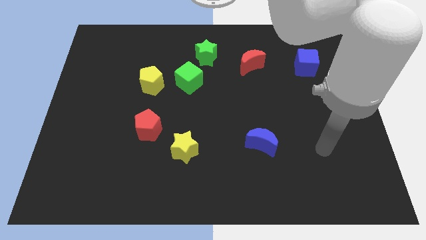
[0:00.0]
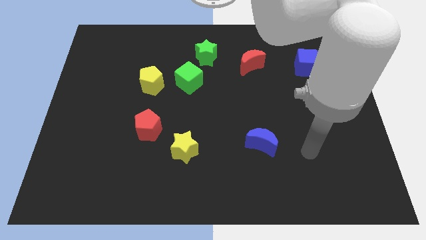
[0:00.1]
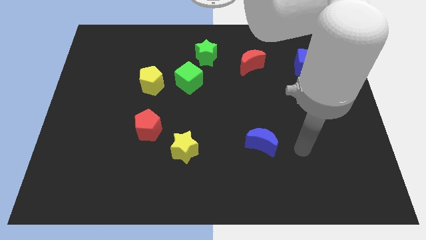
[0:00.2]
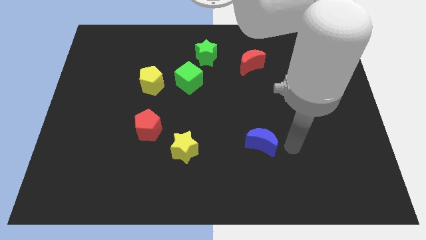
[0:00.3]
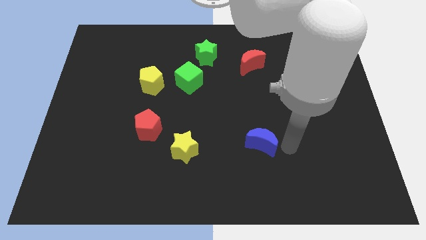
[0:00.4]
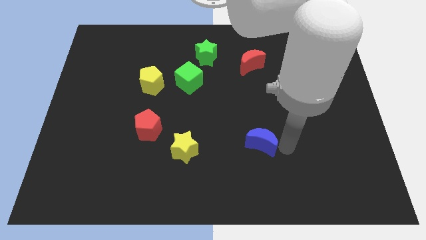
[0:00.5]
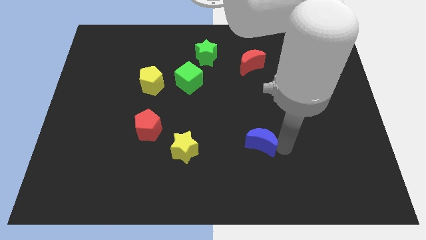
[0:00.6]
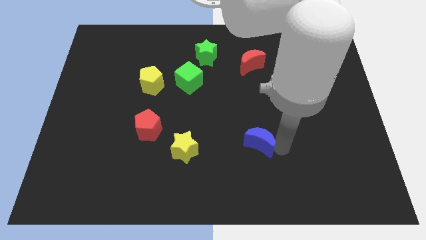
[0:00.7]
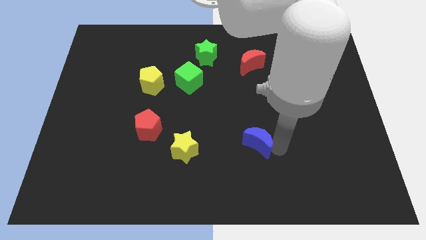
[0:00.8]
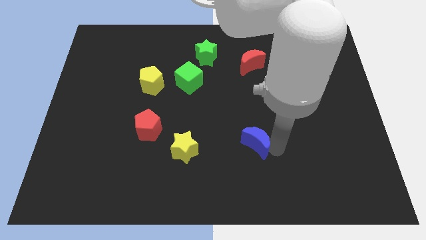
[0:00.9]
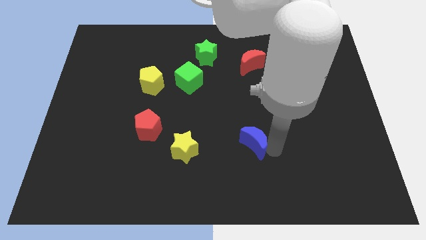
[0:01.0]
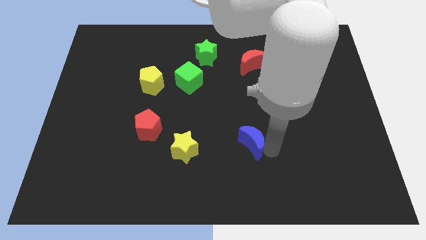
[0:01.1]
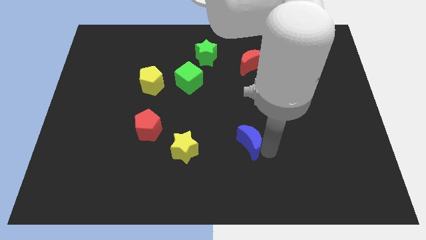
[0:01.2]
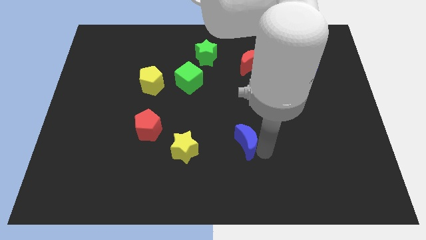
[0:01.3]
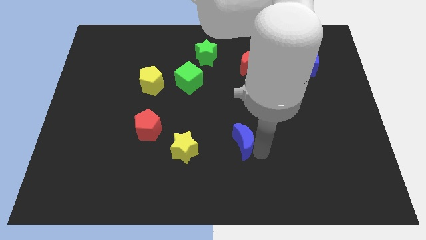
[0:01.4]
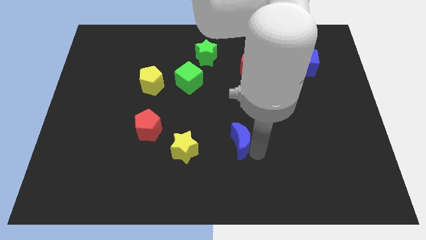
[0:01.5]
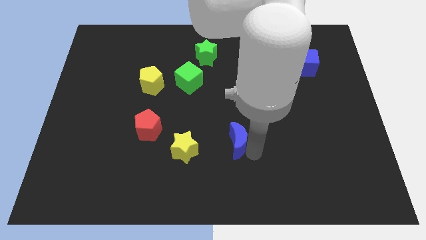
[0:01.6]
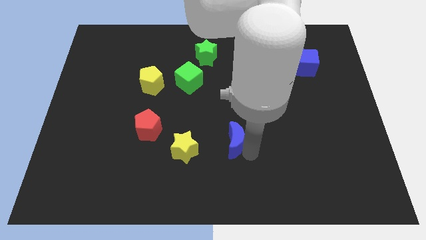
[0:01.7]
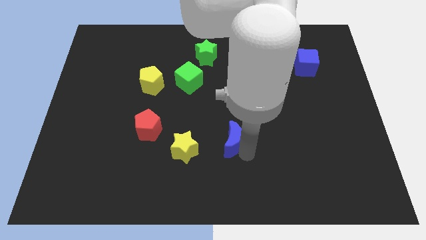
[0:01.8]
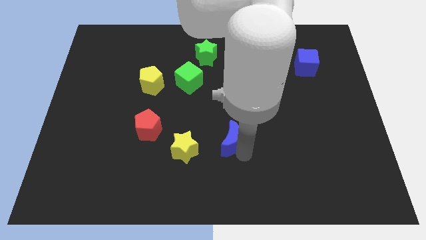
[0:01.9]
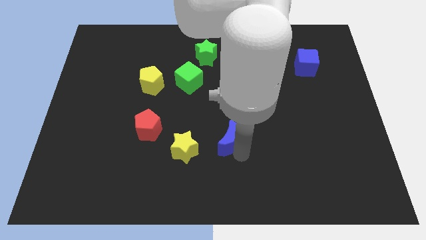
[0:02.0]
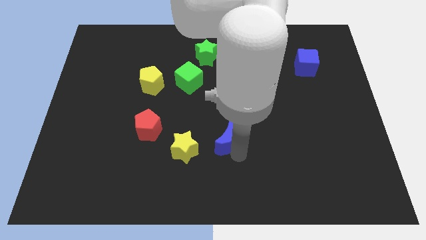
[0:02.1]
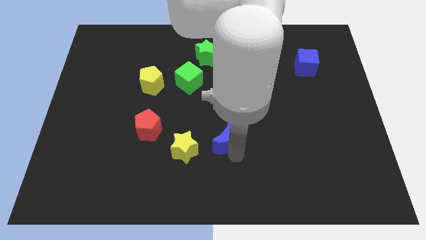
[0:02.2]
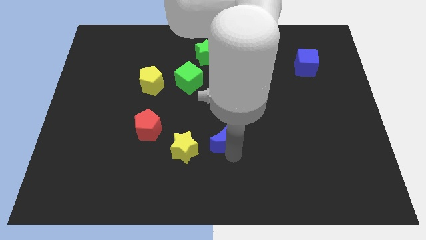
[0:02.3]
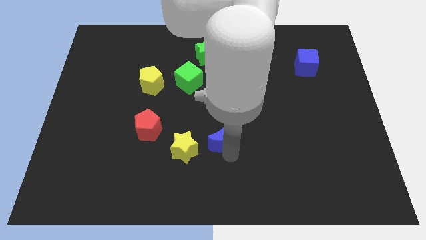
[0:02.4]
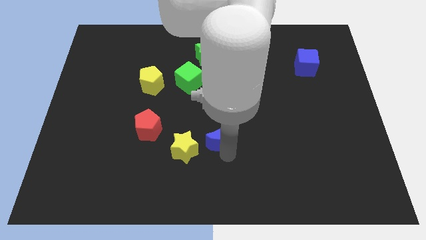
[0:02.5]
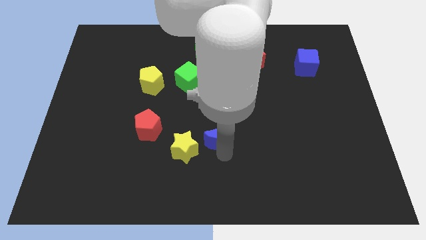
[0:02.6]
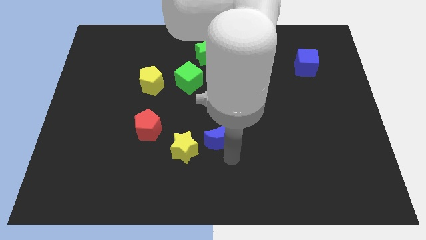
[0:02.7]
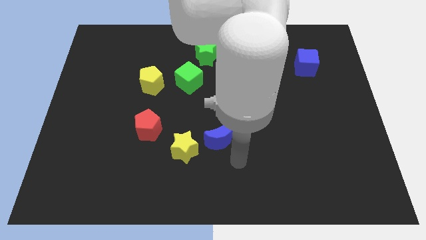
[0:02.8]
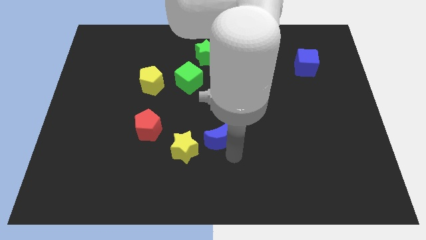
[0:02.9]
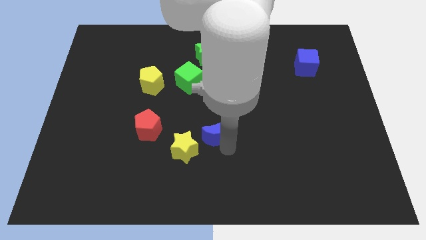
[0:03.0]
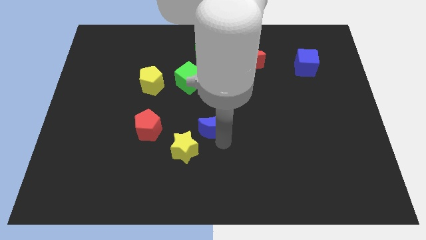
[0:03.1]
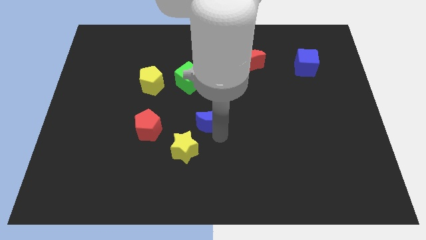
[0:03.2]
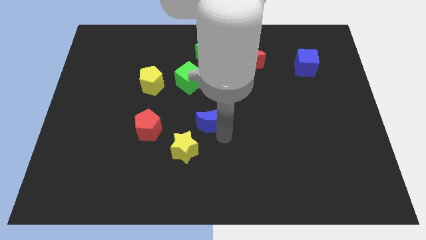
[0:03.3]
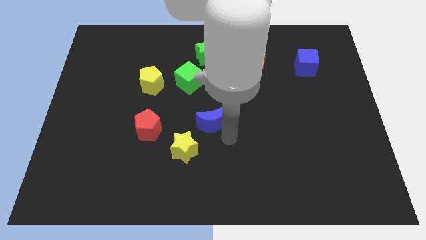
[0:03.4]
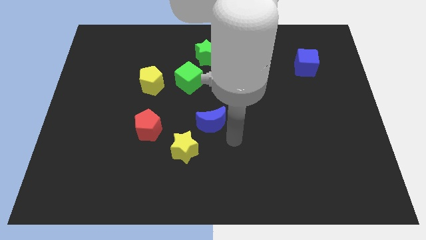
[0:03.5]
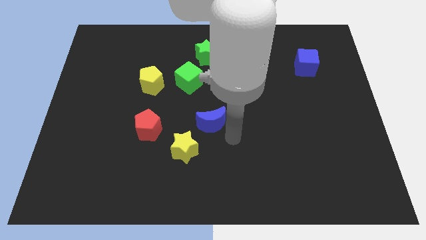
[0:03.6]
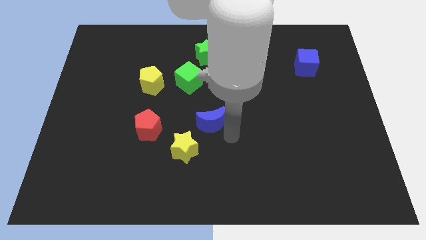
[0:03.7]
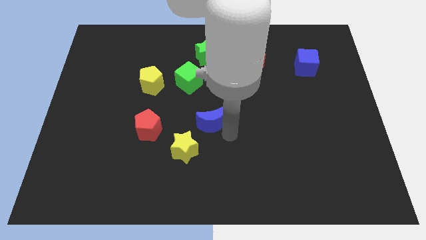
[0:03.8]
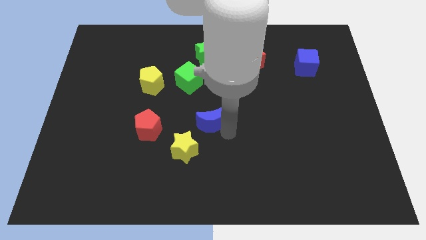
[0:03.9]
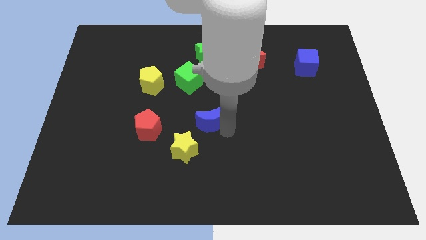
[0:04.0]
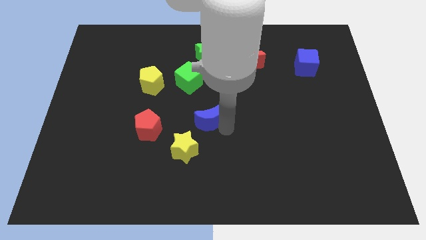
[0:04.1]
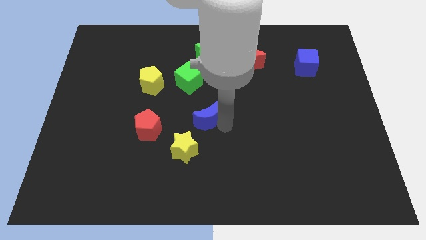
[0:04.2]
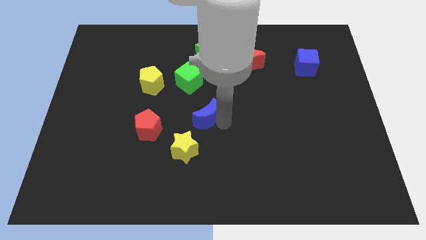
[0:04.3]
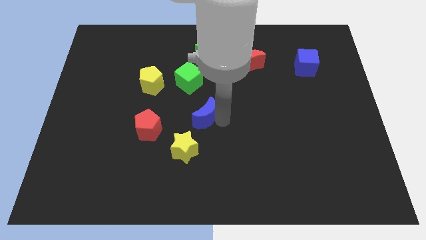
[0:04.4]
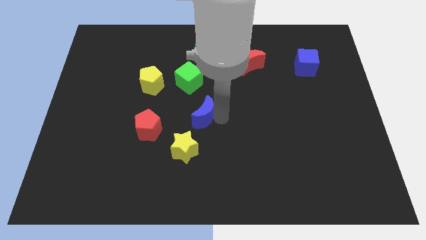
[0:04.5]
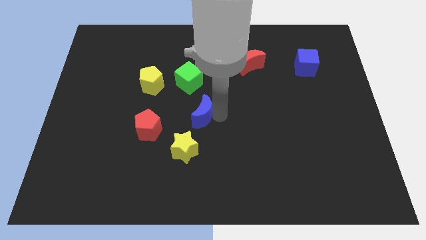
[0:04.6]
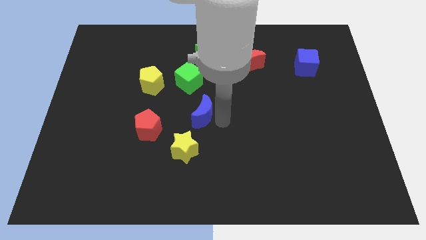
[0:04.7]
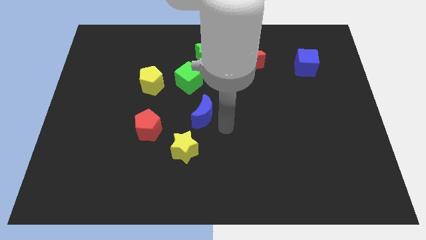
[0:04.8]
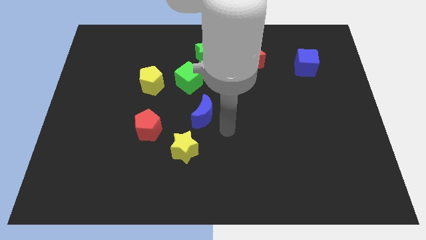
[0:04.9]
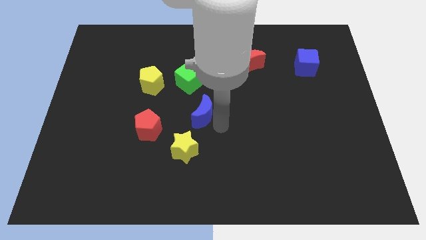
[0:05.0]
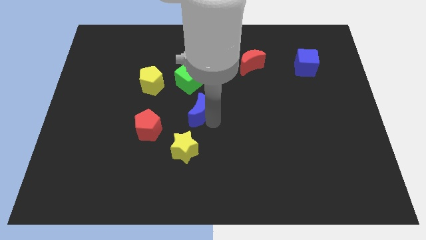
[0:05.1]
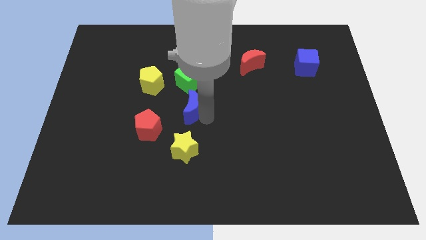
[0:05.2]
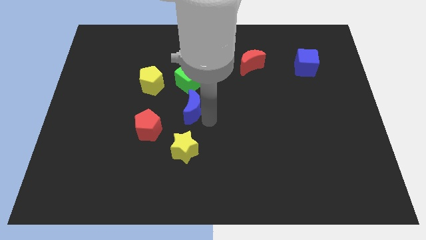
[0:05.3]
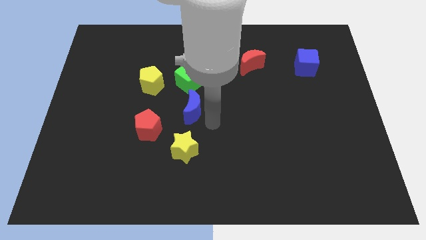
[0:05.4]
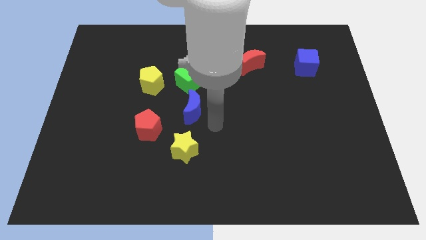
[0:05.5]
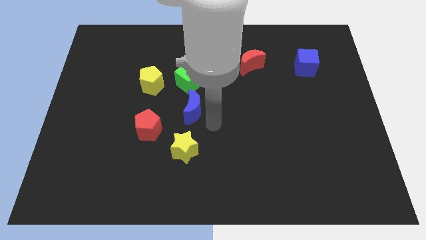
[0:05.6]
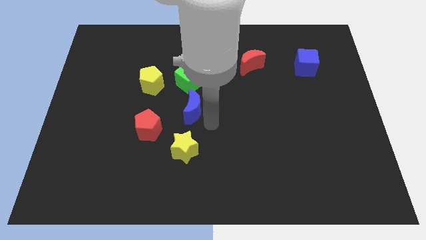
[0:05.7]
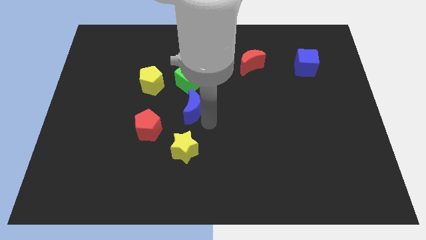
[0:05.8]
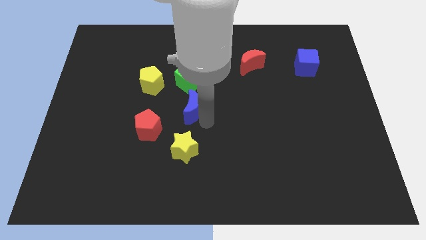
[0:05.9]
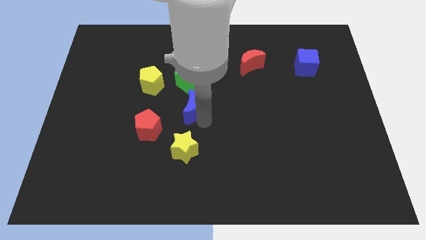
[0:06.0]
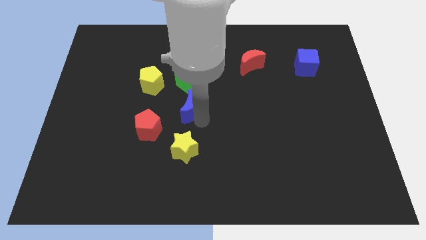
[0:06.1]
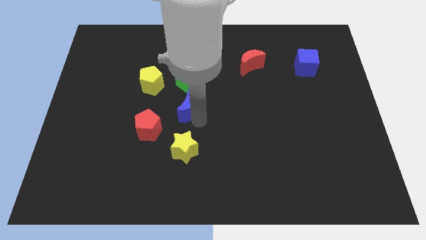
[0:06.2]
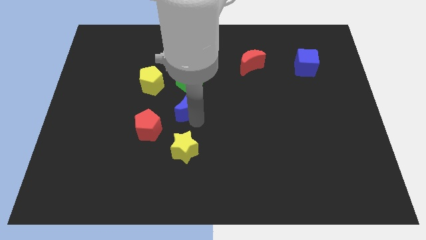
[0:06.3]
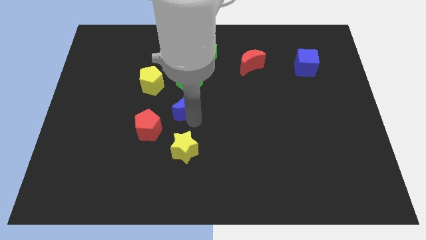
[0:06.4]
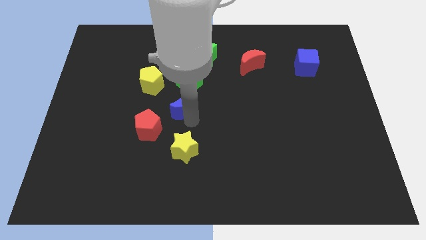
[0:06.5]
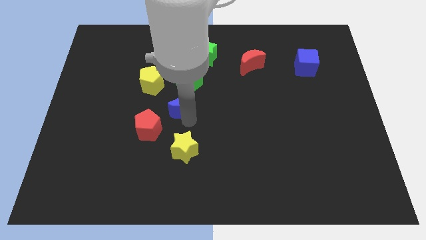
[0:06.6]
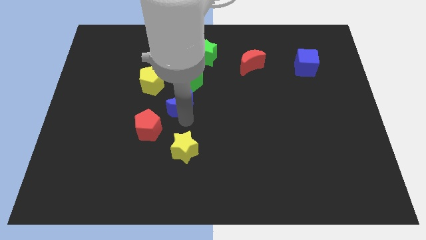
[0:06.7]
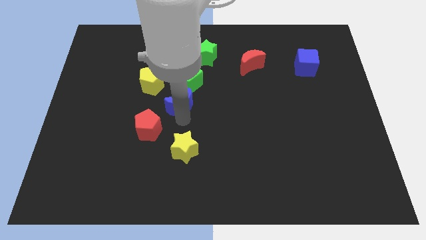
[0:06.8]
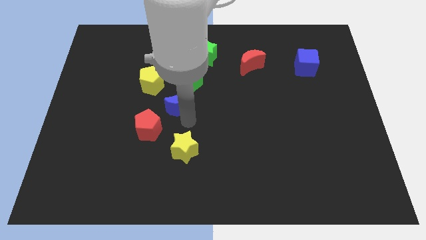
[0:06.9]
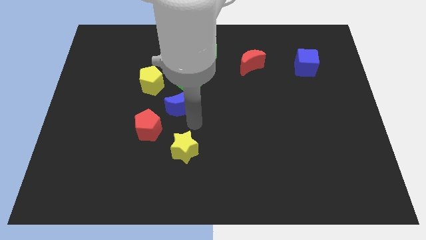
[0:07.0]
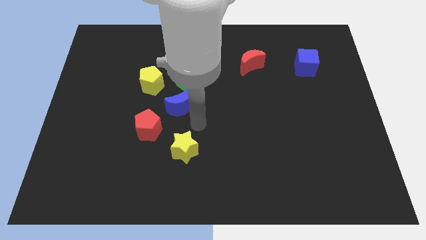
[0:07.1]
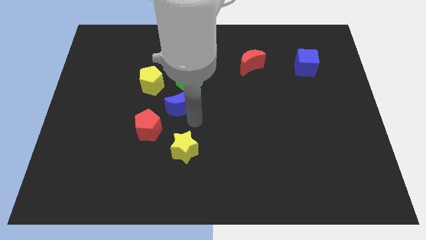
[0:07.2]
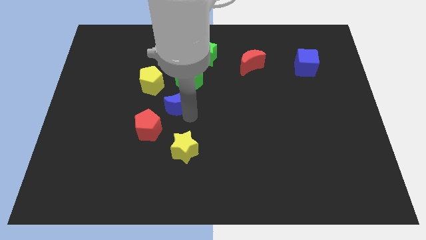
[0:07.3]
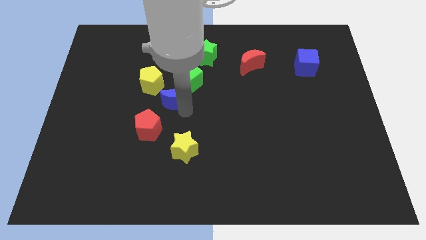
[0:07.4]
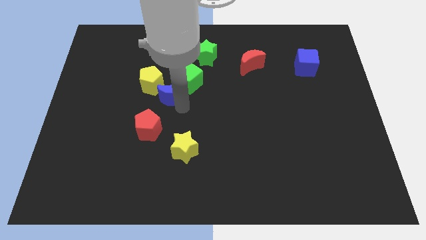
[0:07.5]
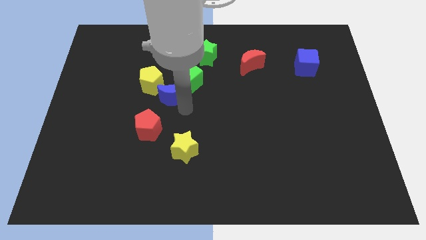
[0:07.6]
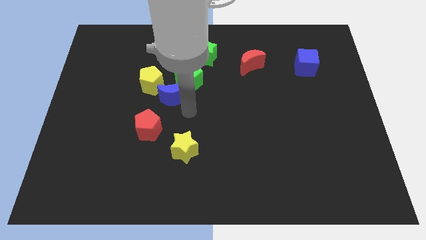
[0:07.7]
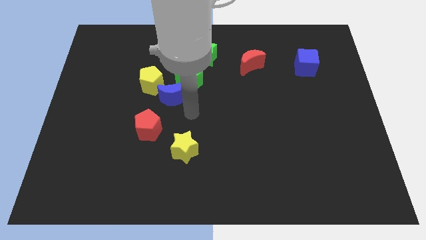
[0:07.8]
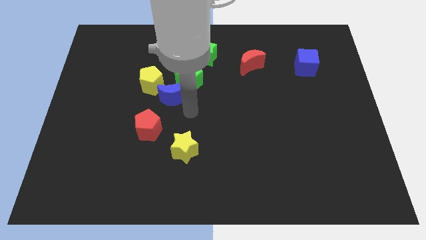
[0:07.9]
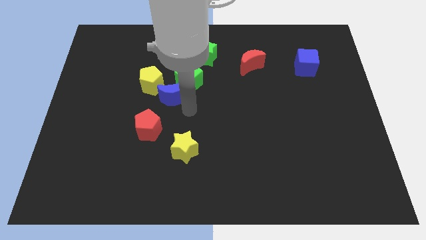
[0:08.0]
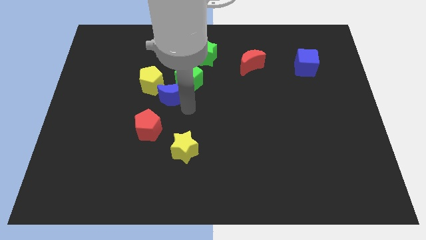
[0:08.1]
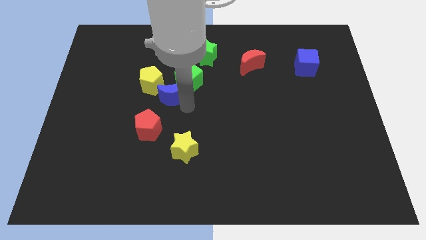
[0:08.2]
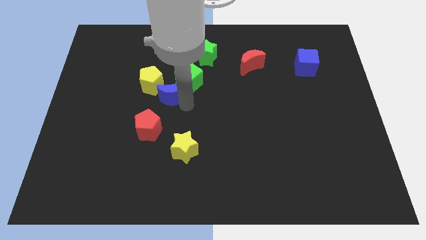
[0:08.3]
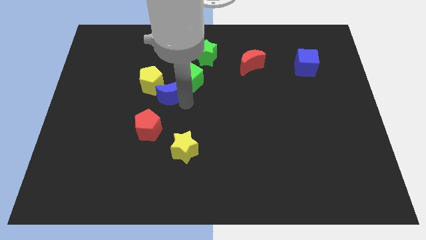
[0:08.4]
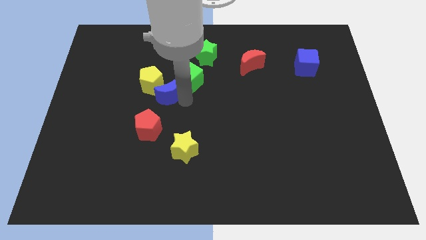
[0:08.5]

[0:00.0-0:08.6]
slide the blue moon to the yellow pentagon
